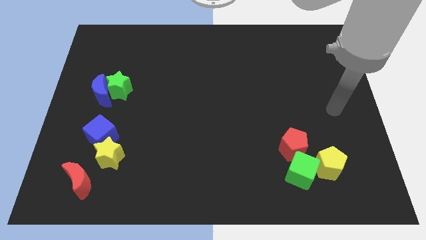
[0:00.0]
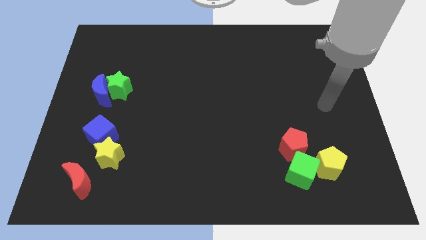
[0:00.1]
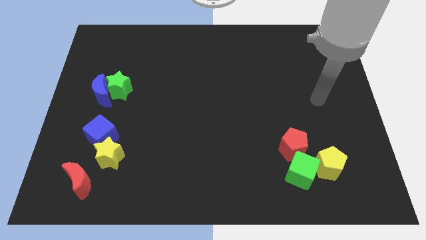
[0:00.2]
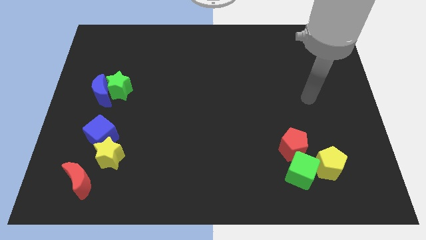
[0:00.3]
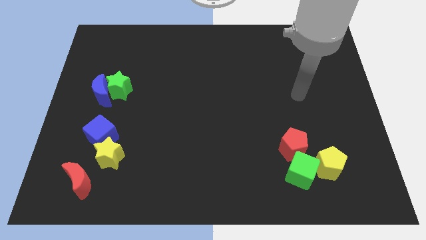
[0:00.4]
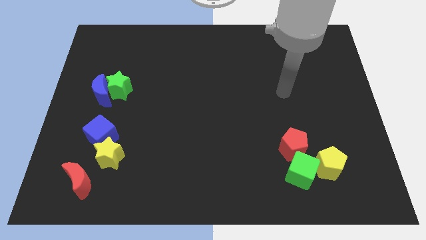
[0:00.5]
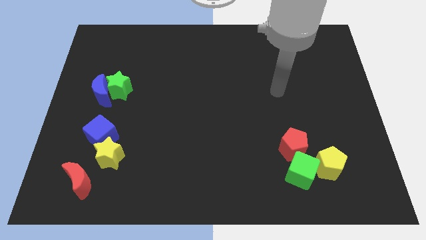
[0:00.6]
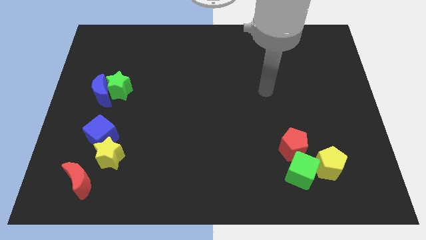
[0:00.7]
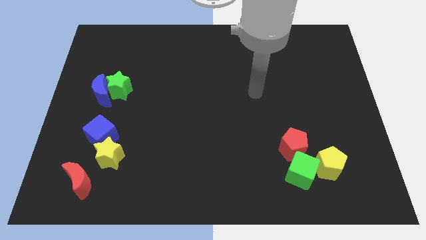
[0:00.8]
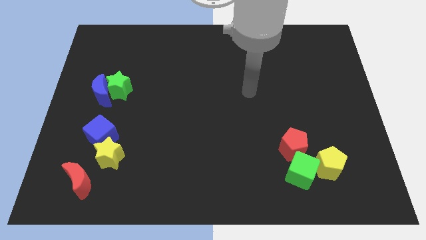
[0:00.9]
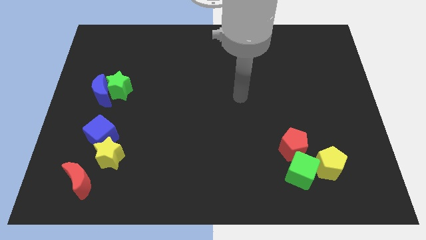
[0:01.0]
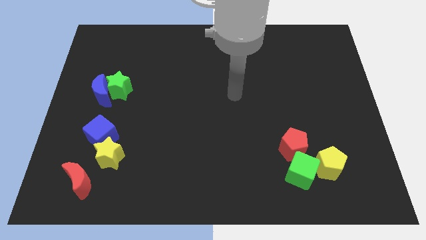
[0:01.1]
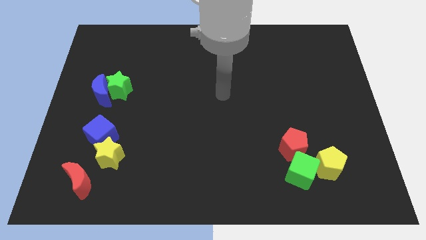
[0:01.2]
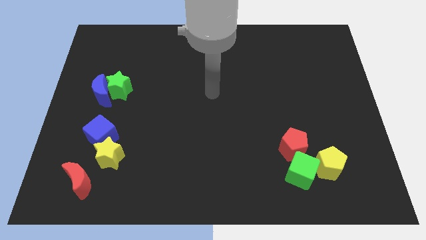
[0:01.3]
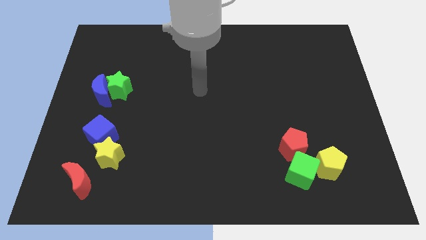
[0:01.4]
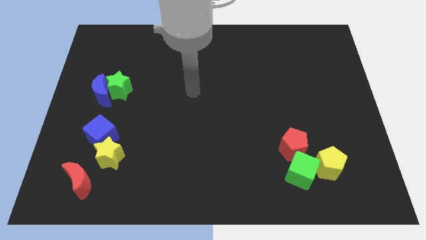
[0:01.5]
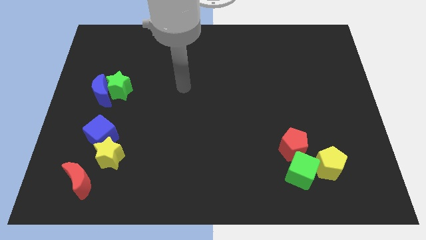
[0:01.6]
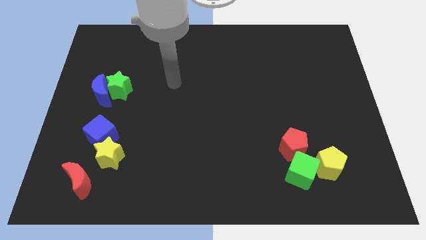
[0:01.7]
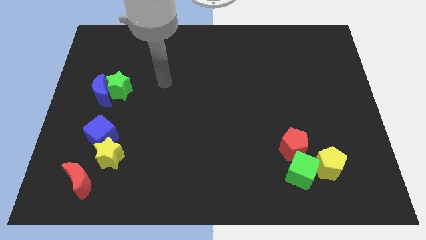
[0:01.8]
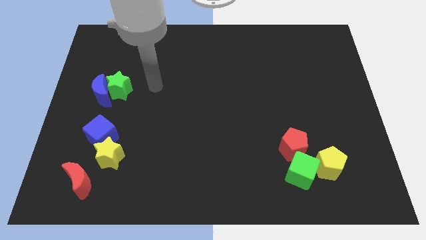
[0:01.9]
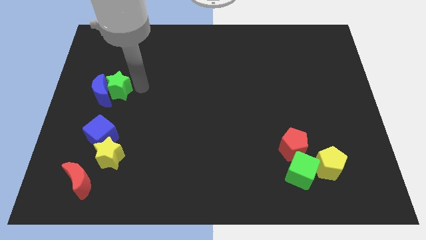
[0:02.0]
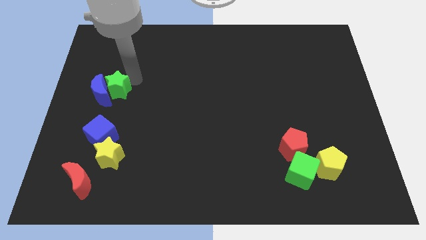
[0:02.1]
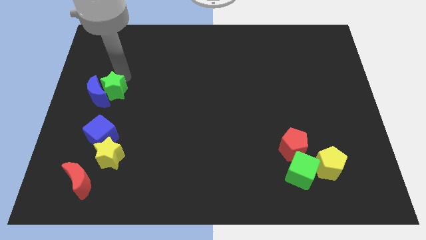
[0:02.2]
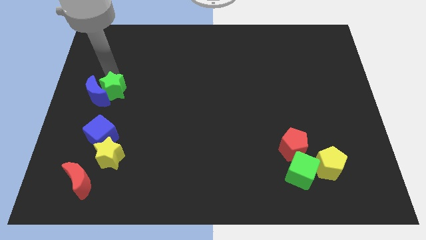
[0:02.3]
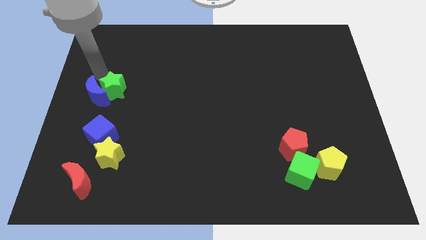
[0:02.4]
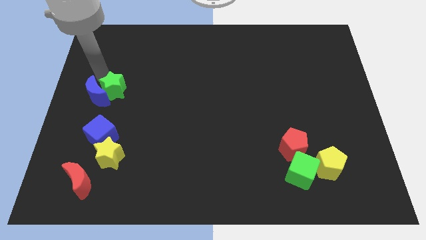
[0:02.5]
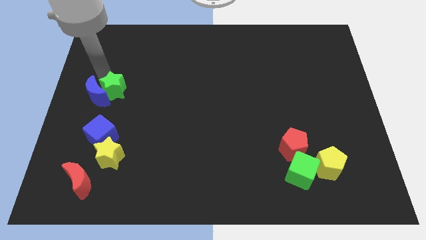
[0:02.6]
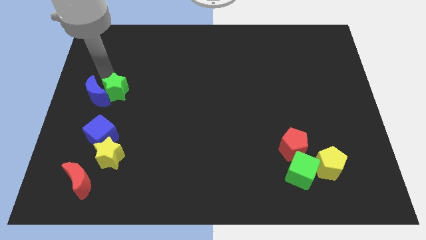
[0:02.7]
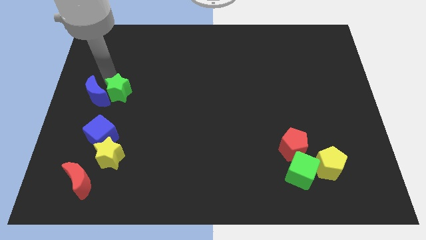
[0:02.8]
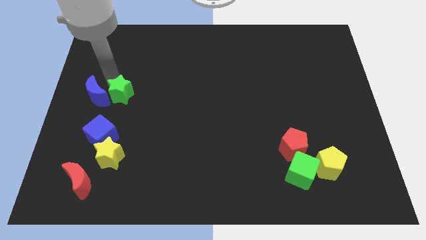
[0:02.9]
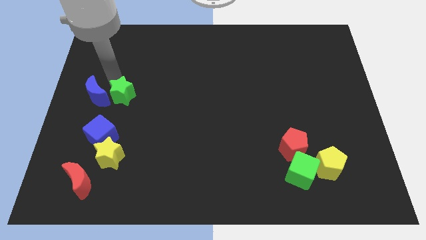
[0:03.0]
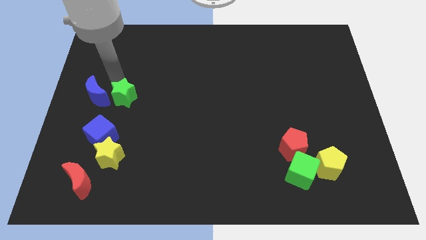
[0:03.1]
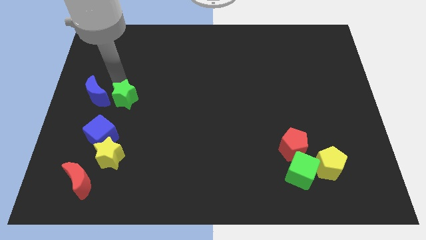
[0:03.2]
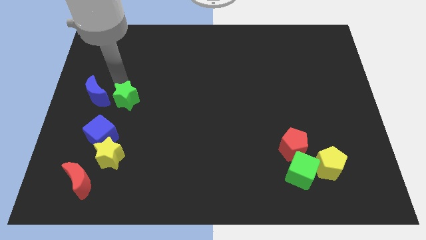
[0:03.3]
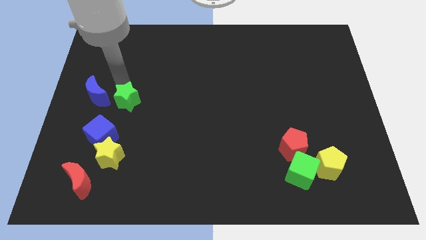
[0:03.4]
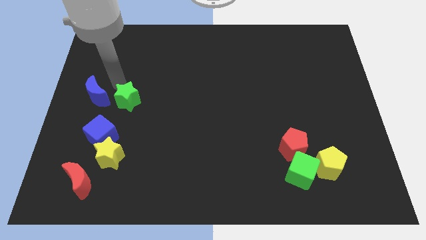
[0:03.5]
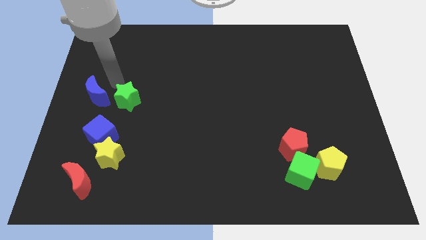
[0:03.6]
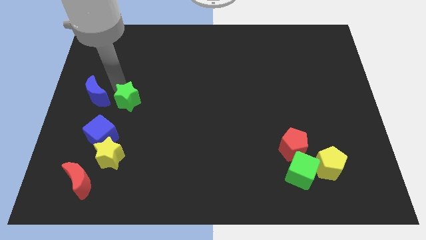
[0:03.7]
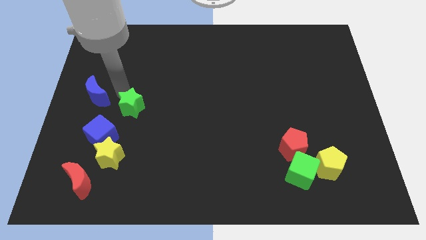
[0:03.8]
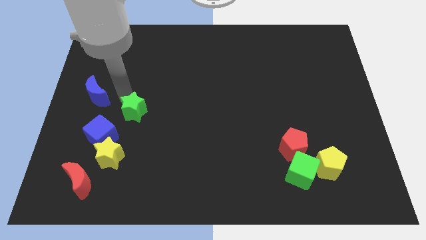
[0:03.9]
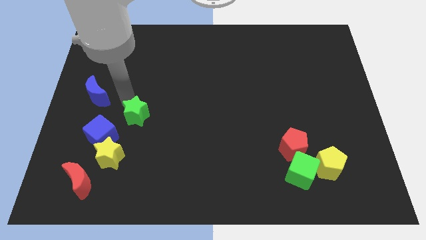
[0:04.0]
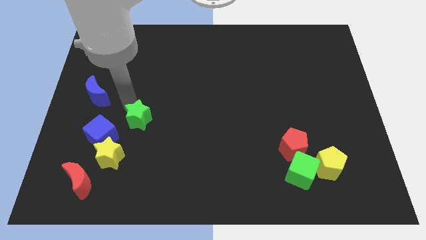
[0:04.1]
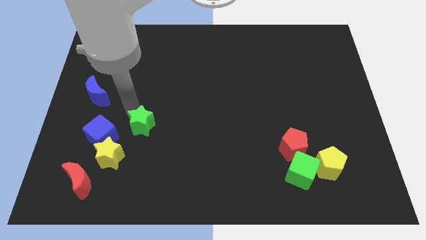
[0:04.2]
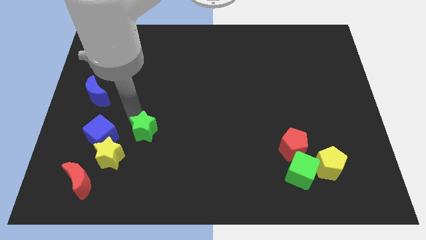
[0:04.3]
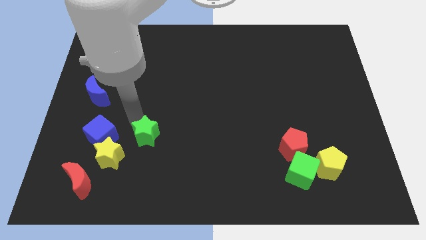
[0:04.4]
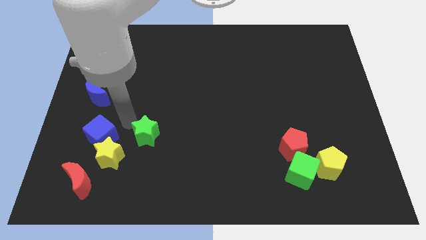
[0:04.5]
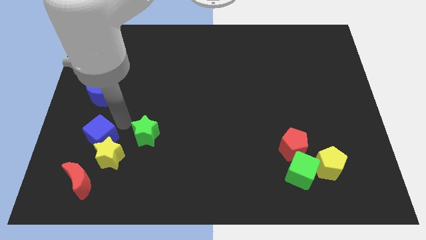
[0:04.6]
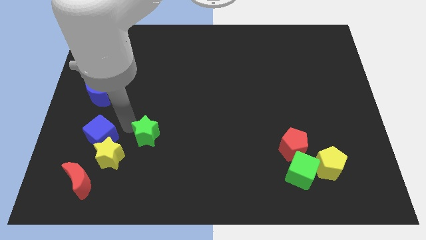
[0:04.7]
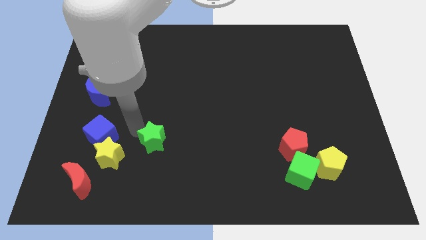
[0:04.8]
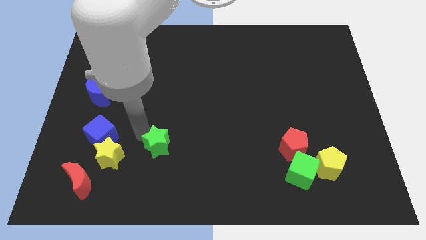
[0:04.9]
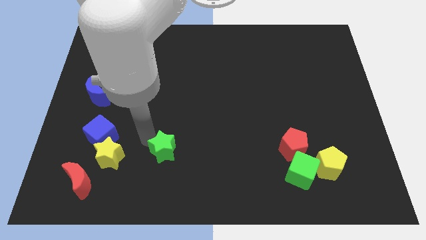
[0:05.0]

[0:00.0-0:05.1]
push the green star diagonally downwards and right

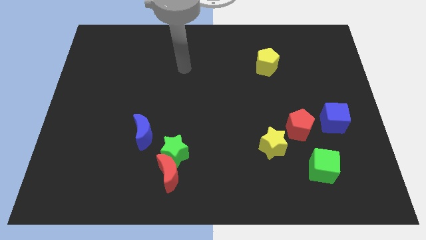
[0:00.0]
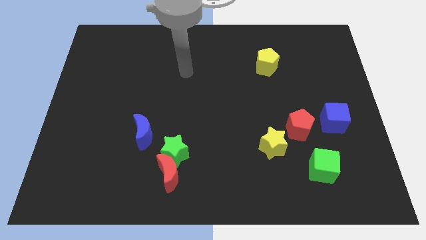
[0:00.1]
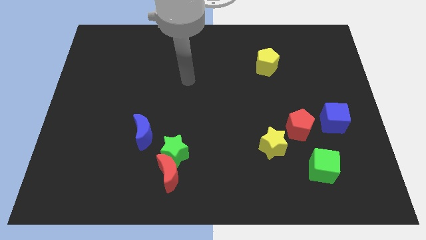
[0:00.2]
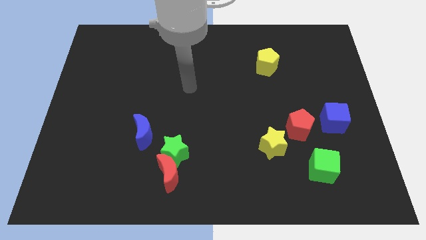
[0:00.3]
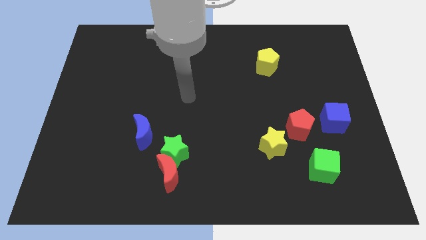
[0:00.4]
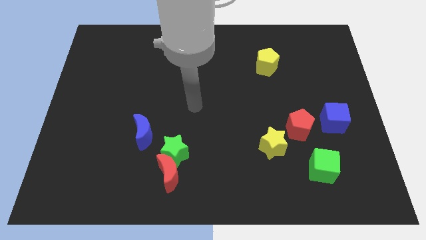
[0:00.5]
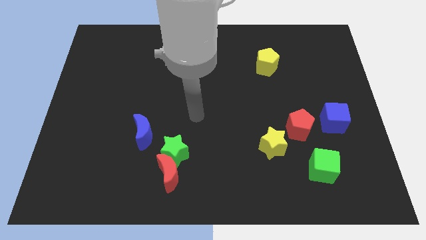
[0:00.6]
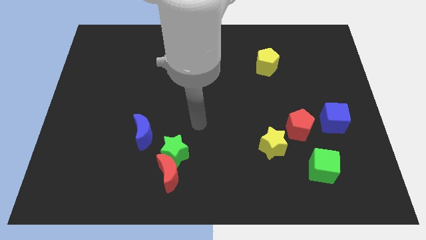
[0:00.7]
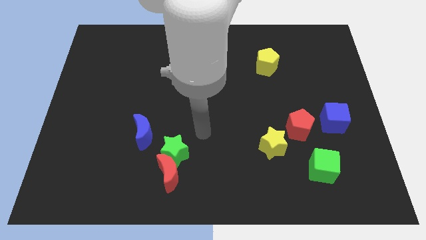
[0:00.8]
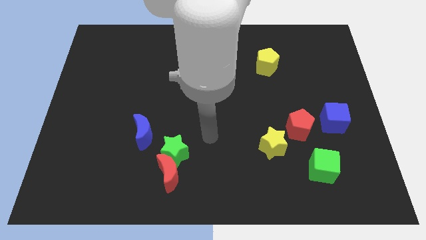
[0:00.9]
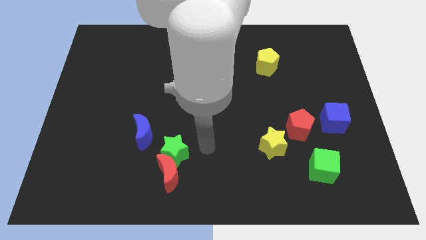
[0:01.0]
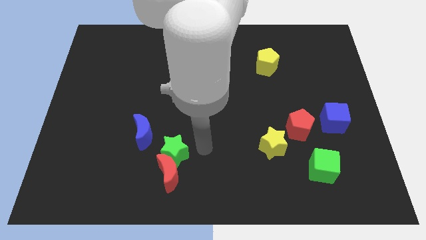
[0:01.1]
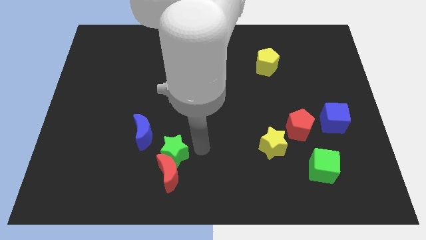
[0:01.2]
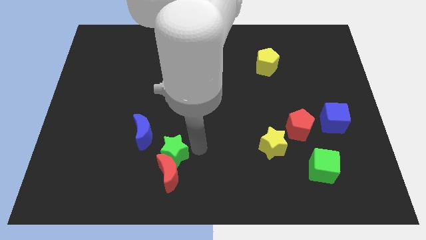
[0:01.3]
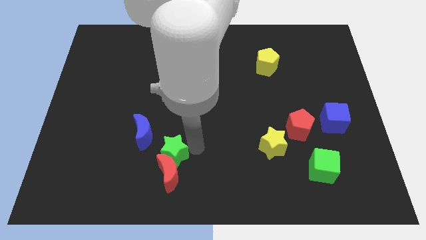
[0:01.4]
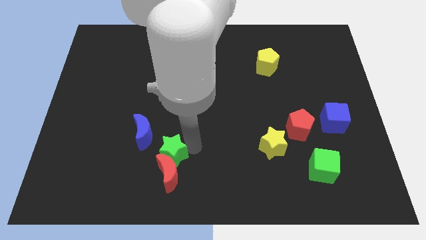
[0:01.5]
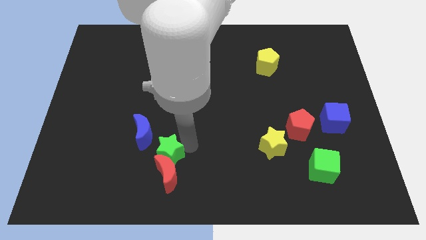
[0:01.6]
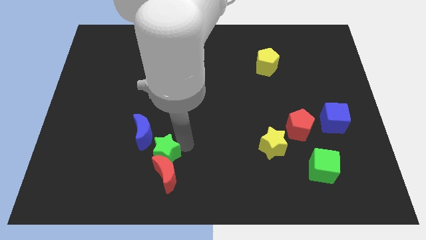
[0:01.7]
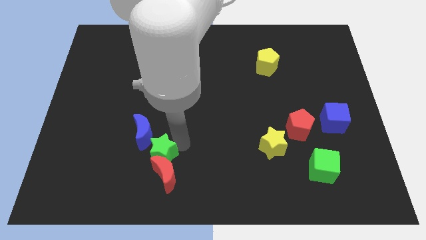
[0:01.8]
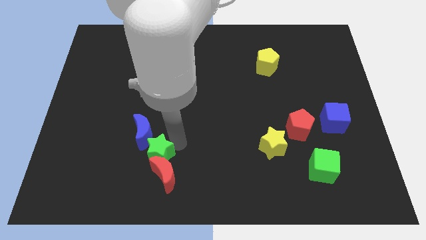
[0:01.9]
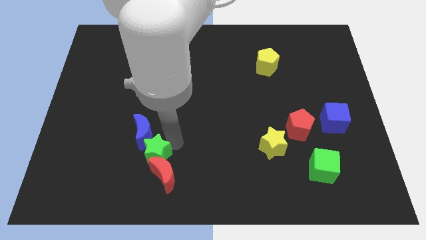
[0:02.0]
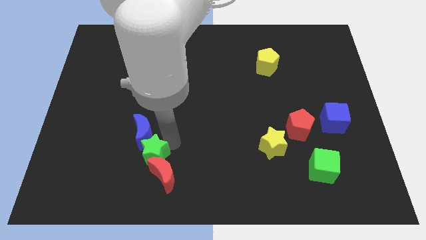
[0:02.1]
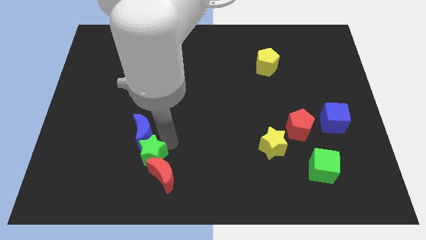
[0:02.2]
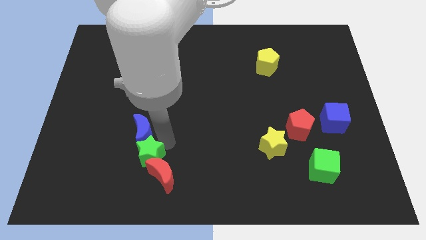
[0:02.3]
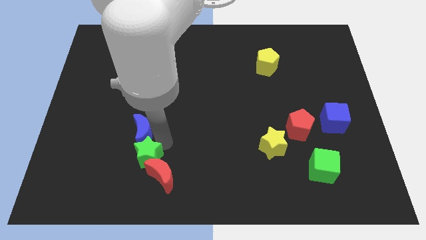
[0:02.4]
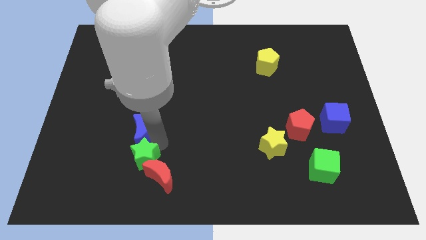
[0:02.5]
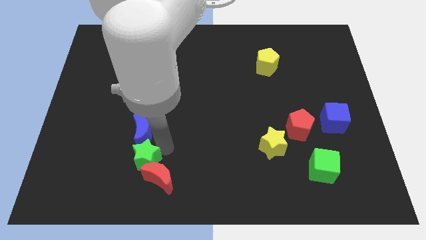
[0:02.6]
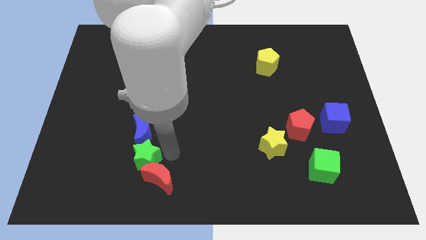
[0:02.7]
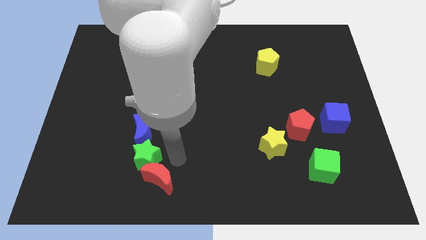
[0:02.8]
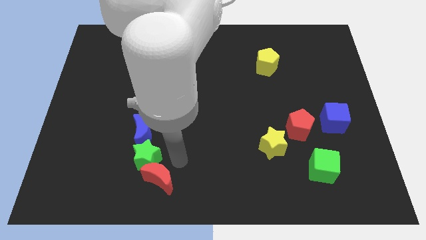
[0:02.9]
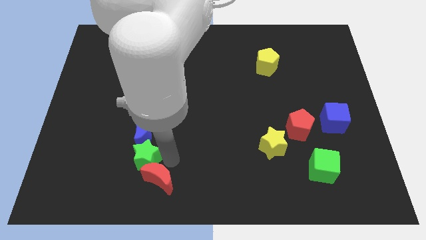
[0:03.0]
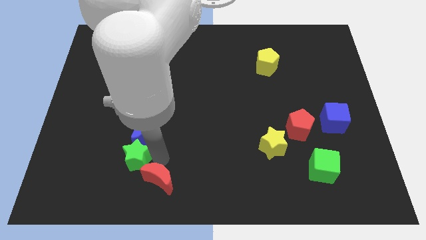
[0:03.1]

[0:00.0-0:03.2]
slide the green star to the left slightly

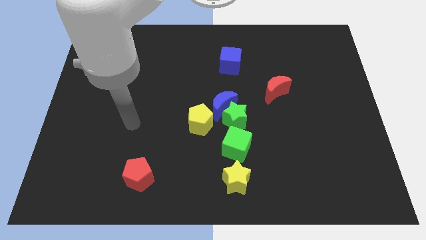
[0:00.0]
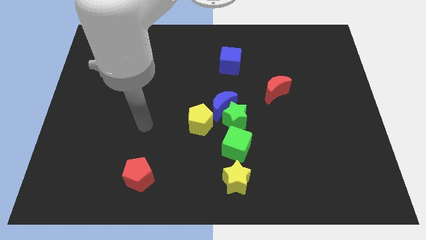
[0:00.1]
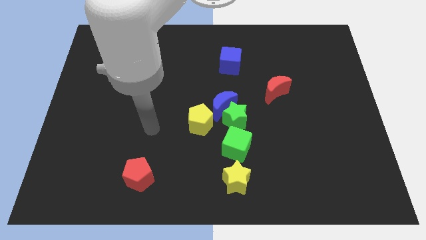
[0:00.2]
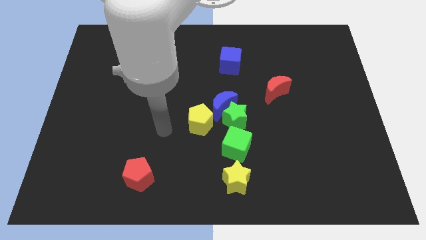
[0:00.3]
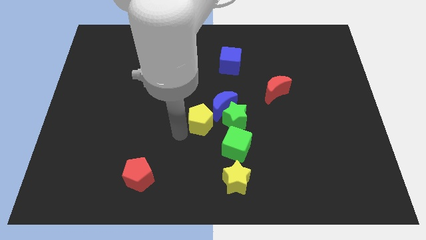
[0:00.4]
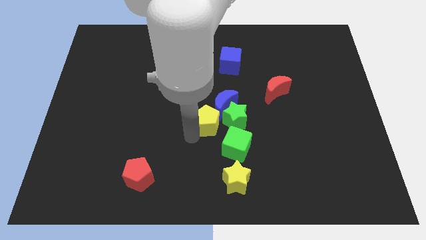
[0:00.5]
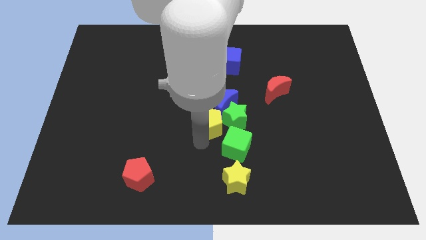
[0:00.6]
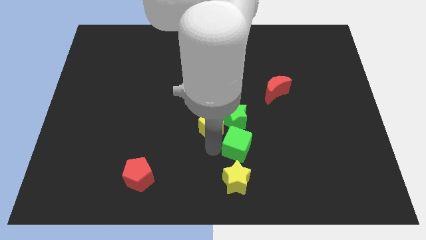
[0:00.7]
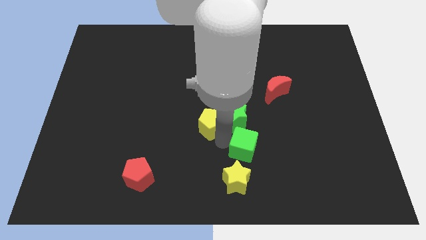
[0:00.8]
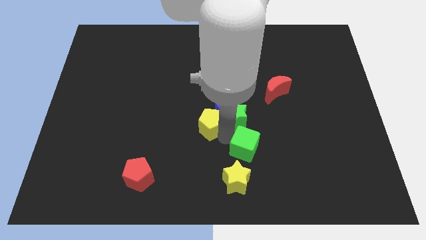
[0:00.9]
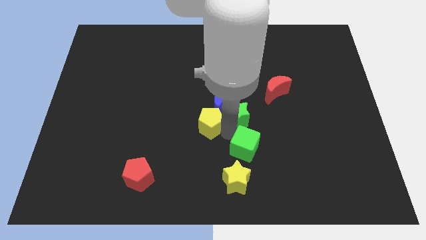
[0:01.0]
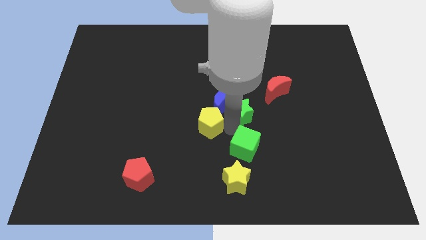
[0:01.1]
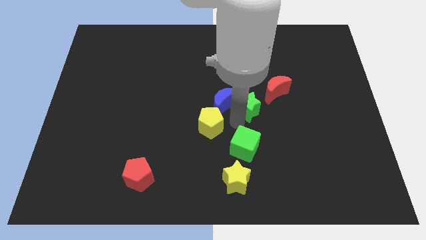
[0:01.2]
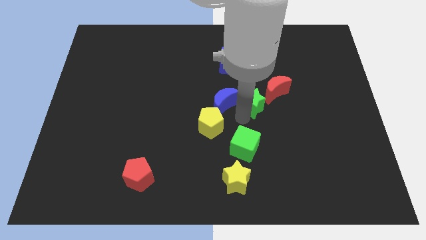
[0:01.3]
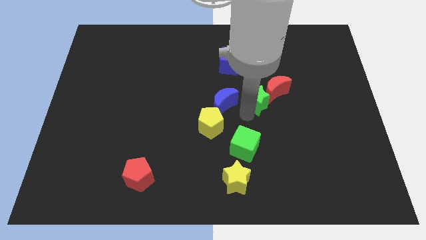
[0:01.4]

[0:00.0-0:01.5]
slightly move the green star up and to the right diagonally
